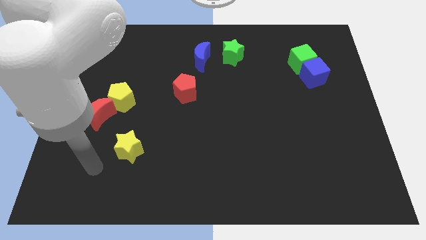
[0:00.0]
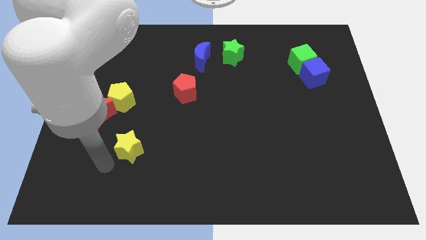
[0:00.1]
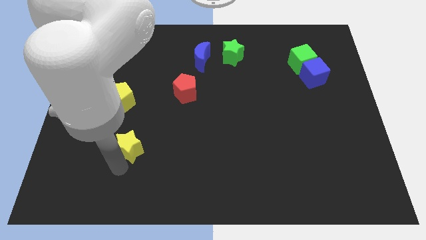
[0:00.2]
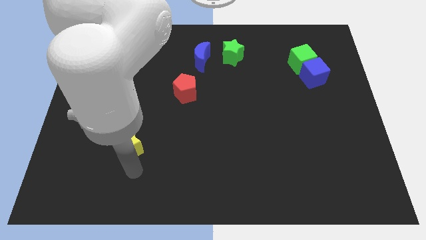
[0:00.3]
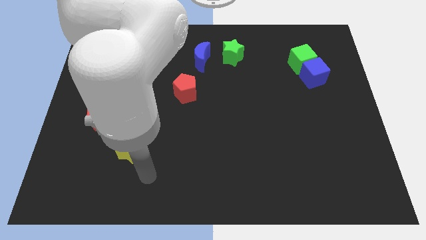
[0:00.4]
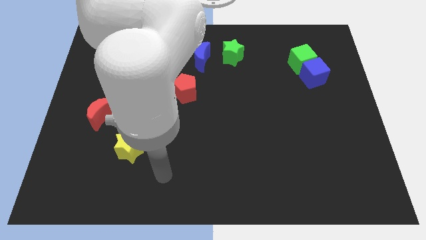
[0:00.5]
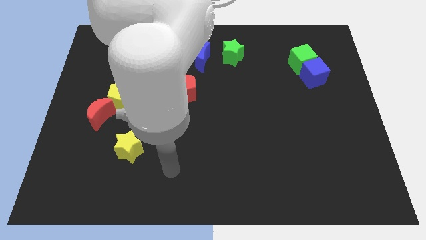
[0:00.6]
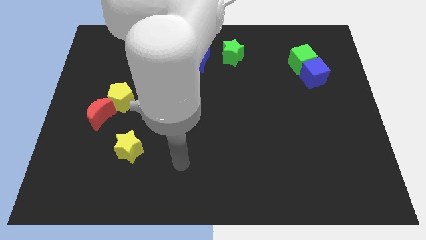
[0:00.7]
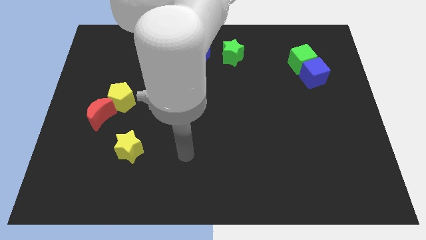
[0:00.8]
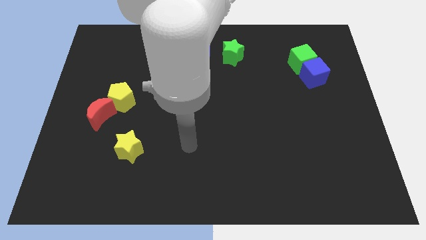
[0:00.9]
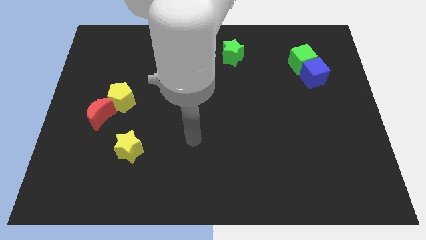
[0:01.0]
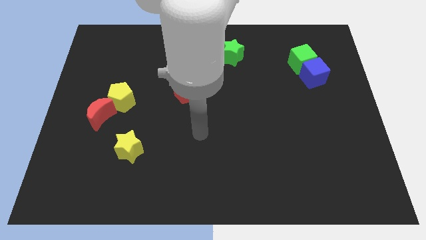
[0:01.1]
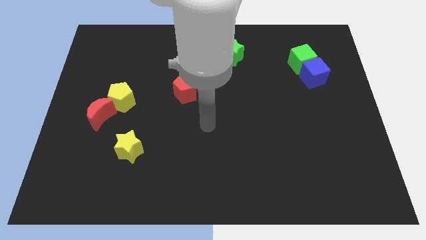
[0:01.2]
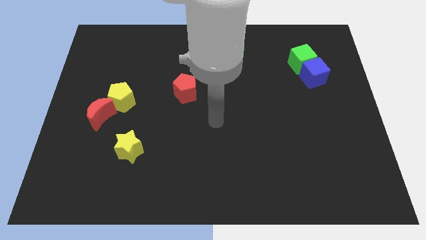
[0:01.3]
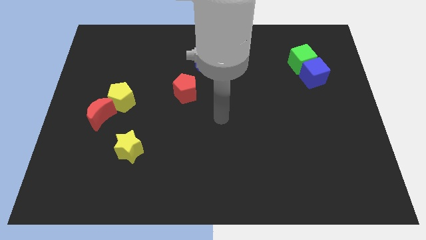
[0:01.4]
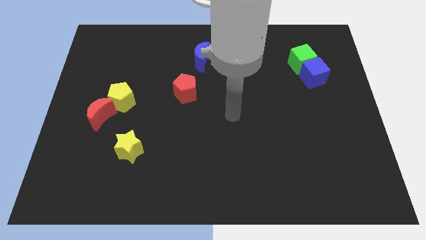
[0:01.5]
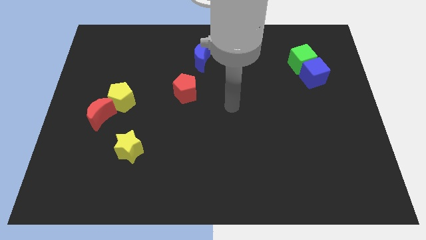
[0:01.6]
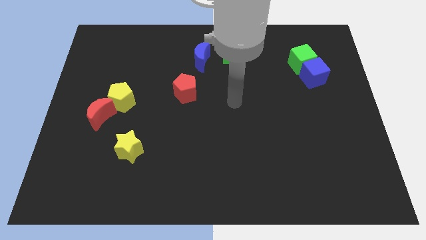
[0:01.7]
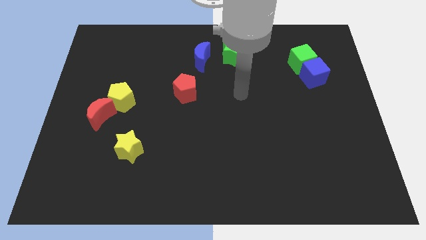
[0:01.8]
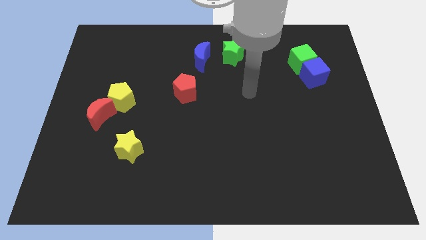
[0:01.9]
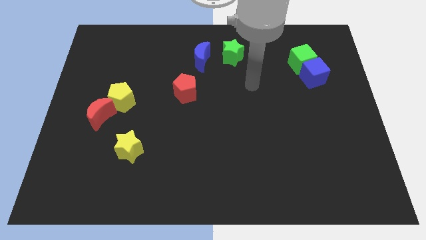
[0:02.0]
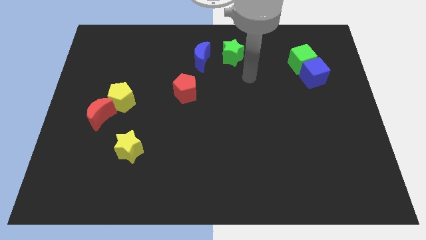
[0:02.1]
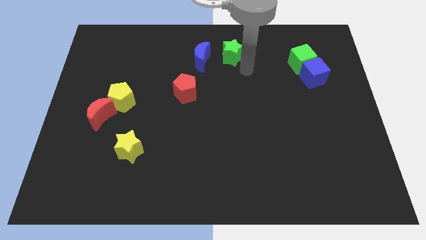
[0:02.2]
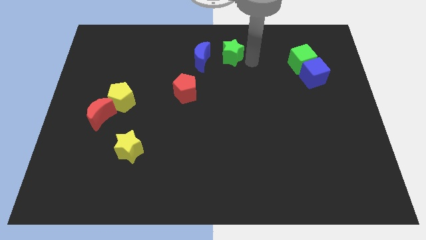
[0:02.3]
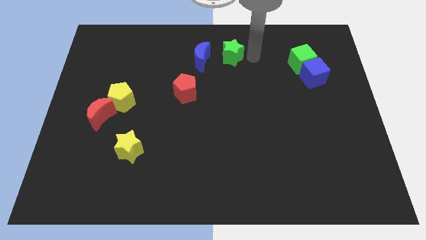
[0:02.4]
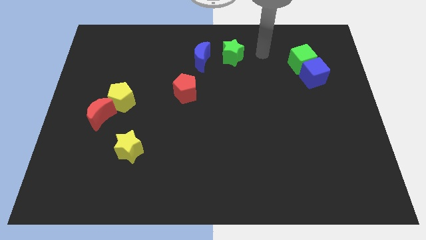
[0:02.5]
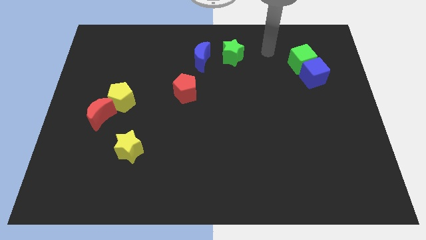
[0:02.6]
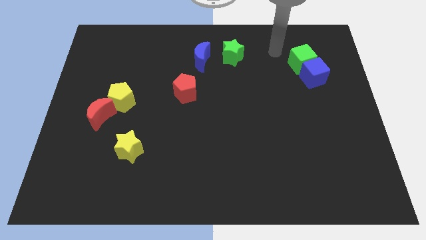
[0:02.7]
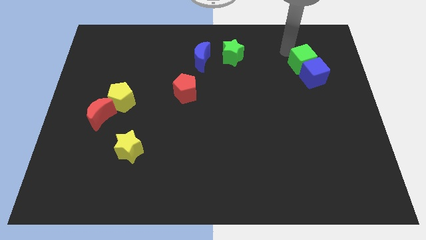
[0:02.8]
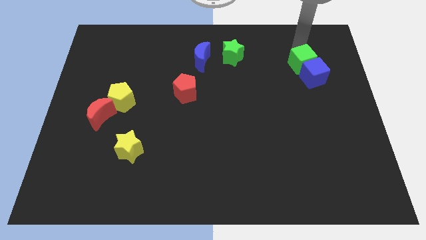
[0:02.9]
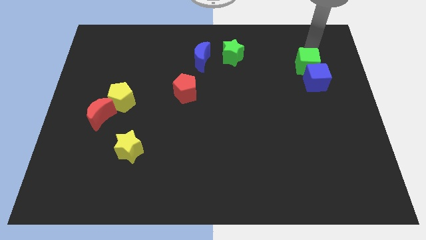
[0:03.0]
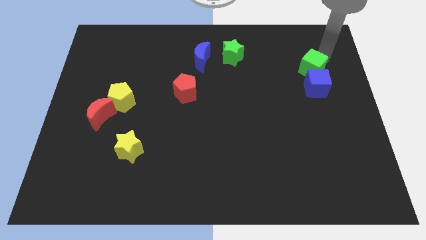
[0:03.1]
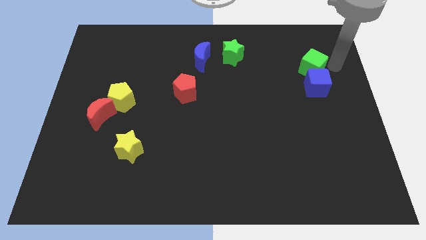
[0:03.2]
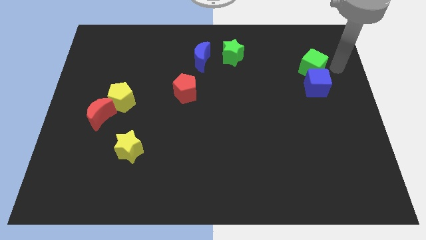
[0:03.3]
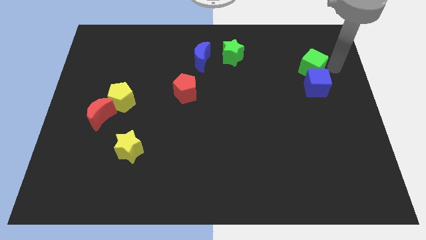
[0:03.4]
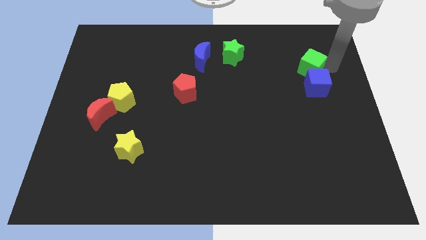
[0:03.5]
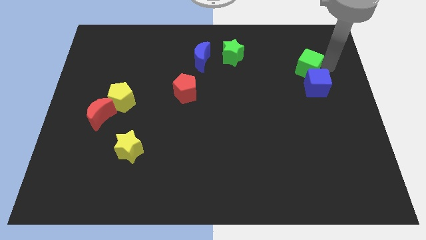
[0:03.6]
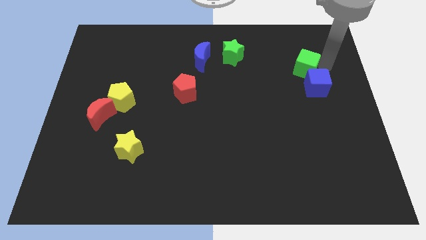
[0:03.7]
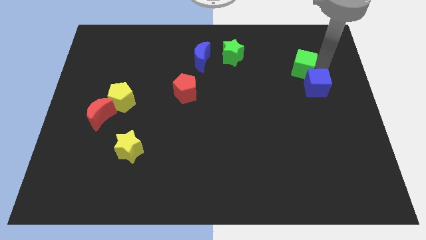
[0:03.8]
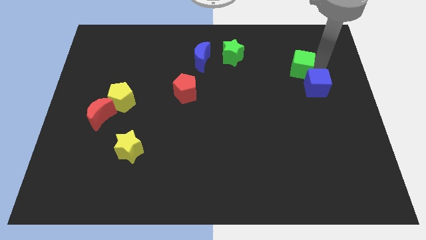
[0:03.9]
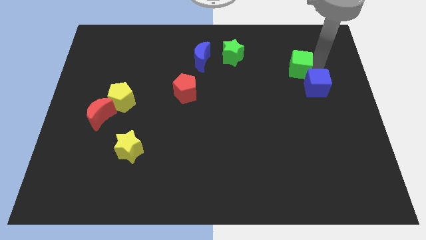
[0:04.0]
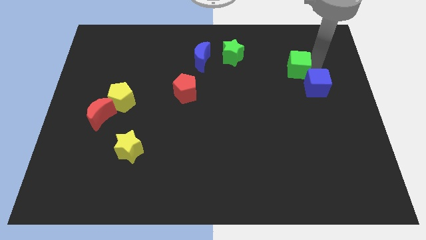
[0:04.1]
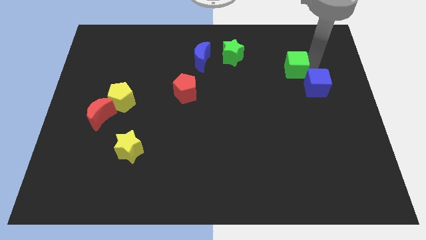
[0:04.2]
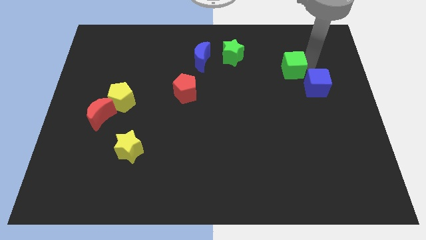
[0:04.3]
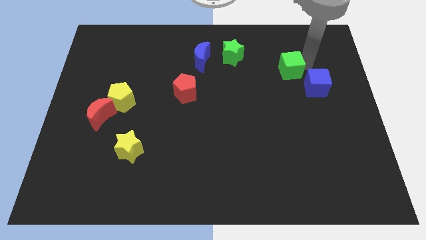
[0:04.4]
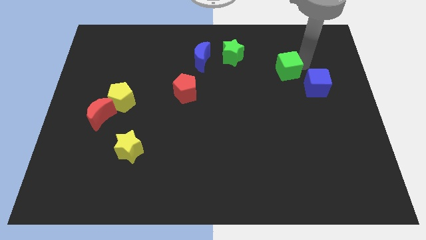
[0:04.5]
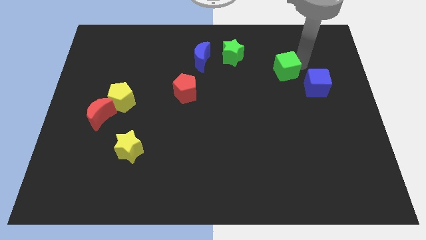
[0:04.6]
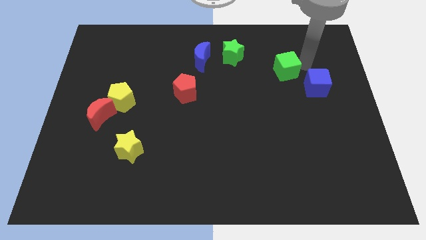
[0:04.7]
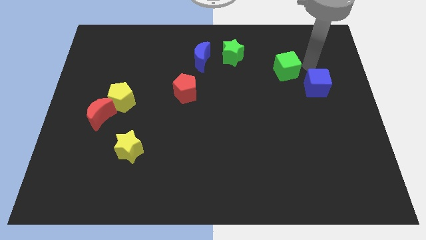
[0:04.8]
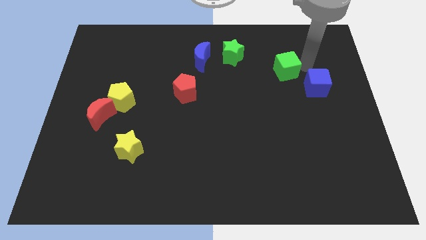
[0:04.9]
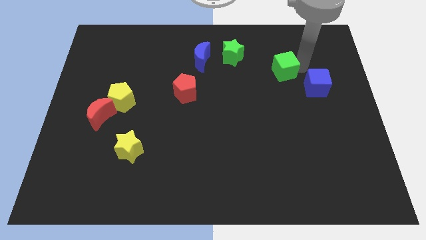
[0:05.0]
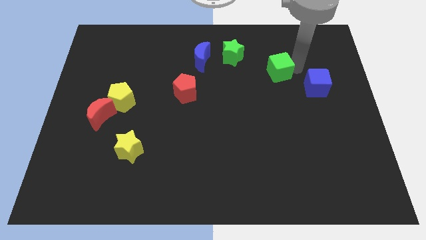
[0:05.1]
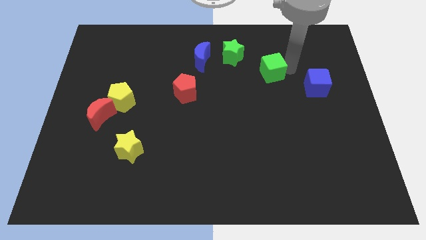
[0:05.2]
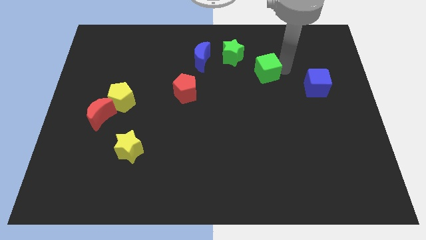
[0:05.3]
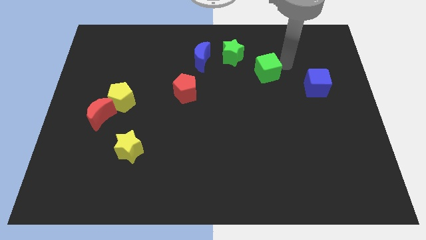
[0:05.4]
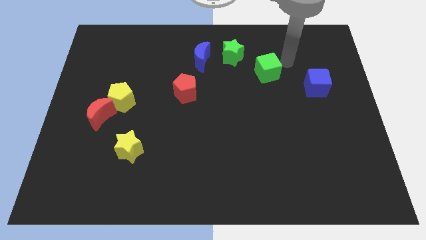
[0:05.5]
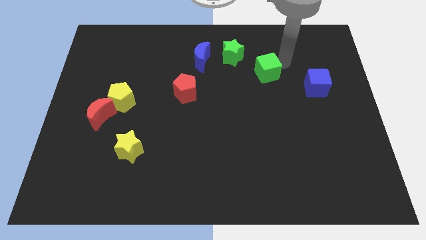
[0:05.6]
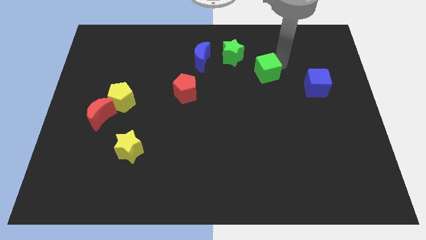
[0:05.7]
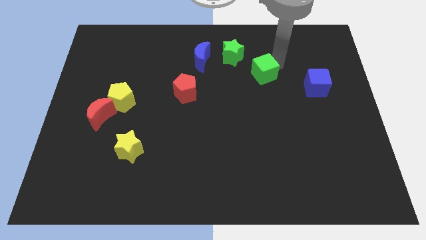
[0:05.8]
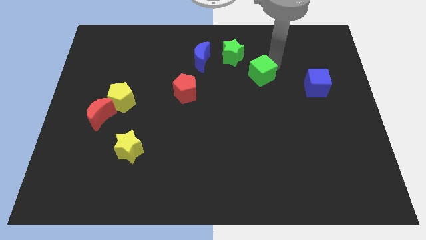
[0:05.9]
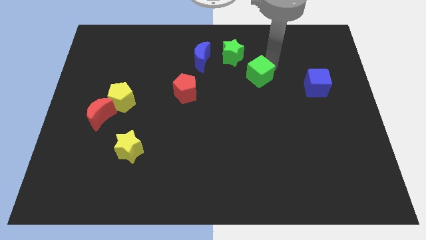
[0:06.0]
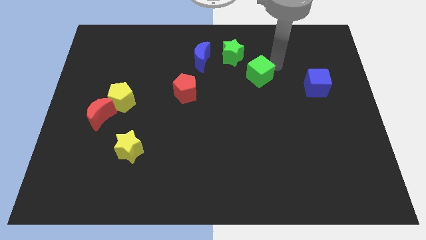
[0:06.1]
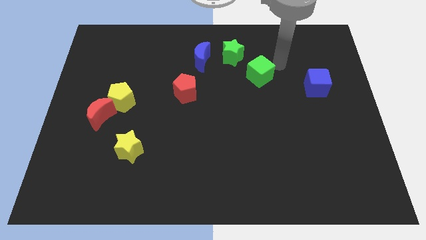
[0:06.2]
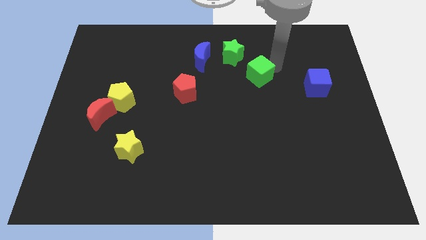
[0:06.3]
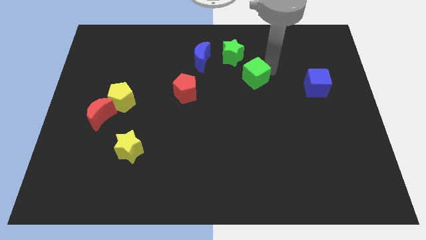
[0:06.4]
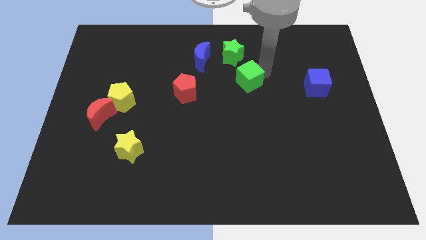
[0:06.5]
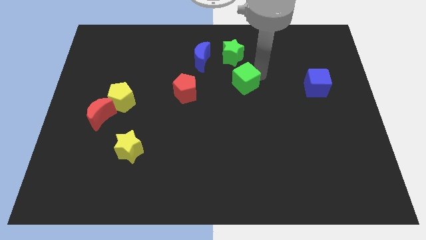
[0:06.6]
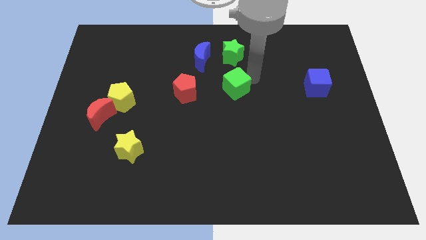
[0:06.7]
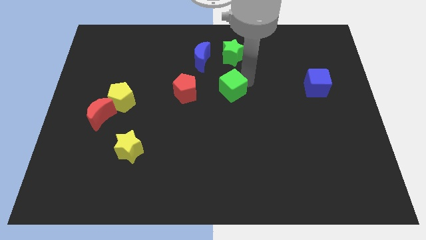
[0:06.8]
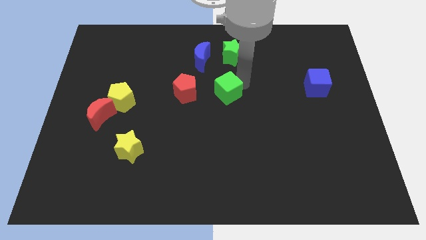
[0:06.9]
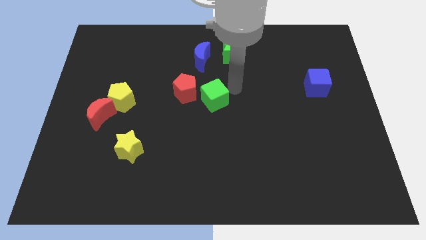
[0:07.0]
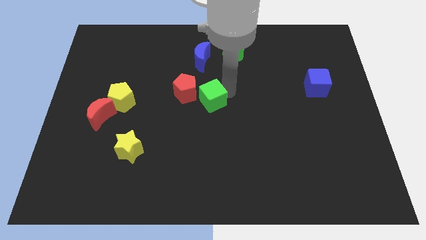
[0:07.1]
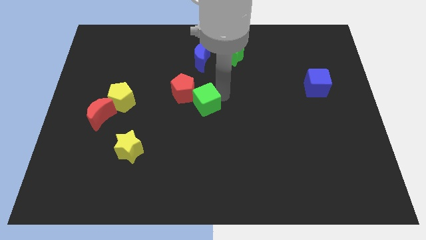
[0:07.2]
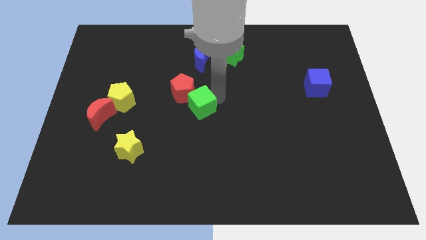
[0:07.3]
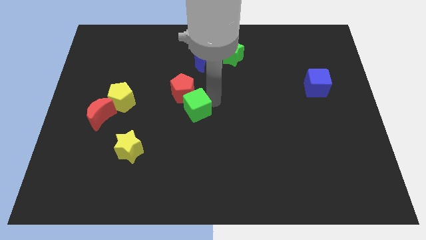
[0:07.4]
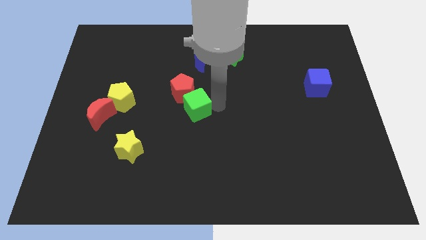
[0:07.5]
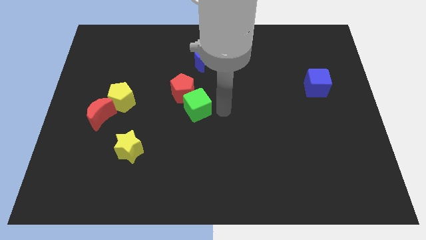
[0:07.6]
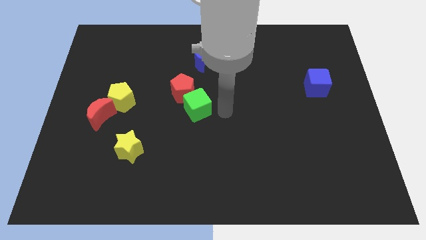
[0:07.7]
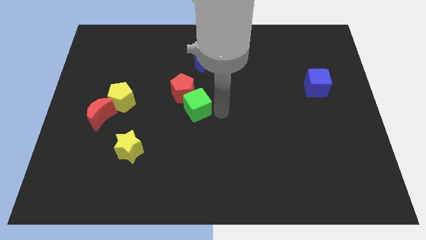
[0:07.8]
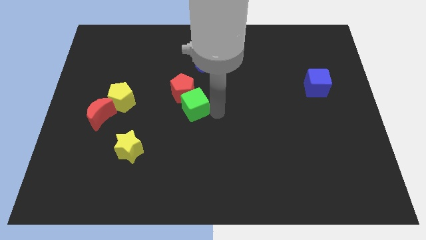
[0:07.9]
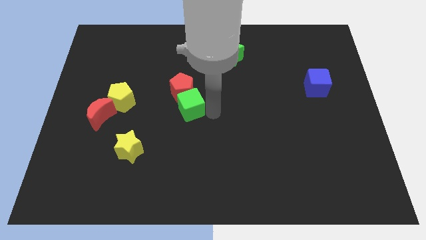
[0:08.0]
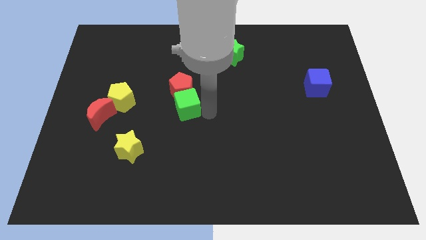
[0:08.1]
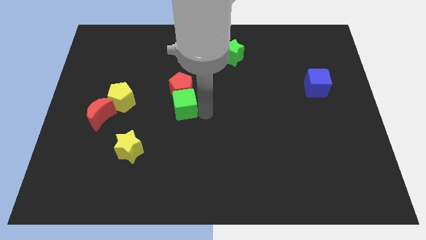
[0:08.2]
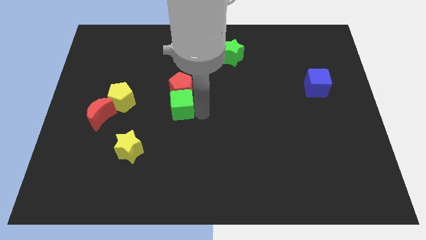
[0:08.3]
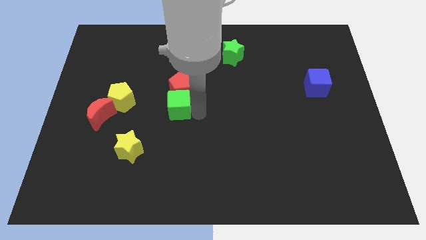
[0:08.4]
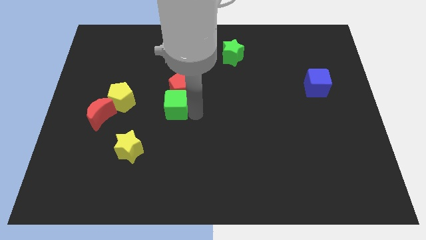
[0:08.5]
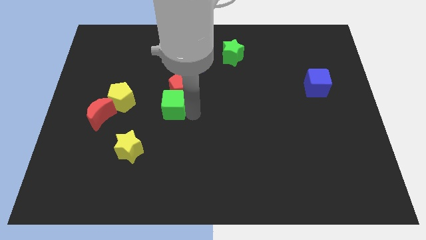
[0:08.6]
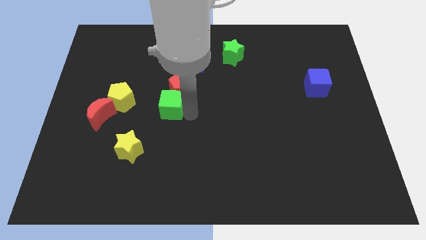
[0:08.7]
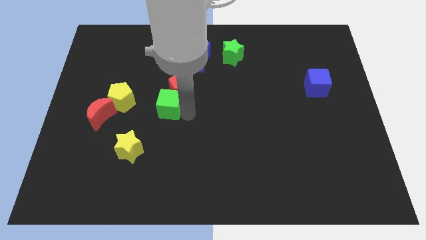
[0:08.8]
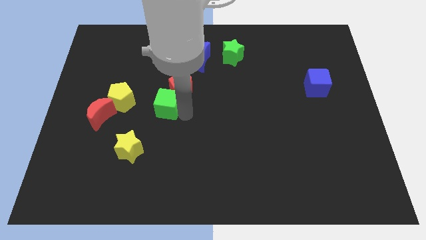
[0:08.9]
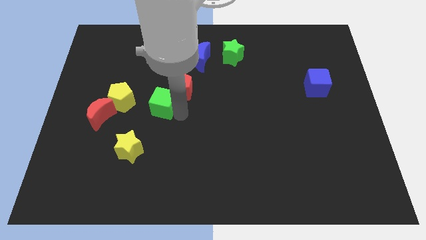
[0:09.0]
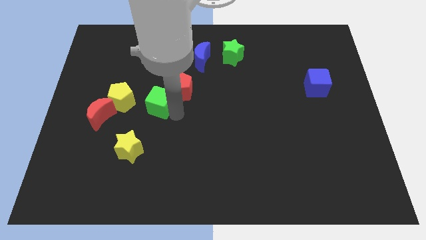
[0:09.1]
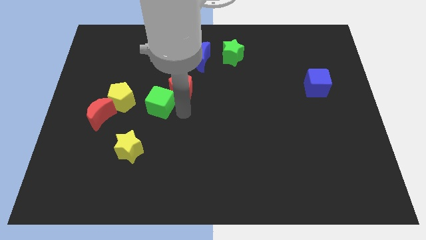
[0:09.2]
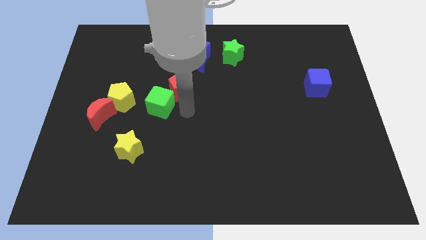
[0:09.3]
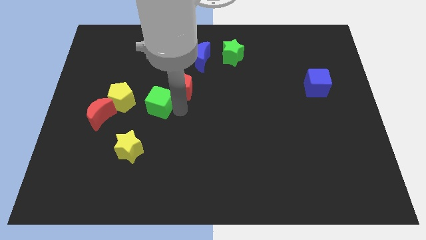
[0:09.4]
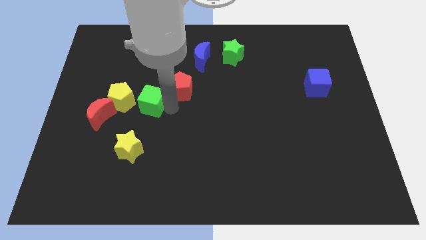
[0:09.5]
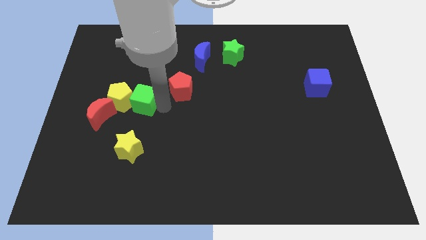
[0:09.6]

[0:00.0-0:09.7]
slide the green cube to the top right of the red moon
